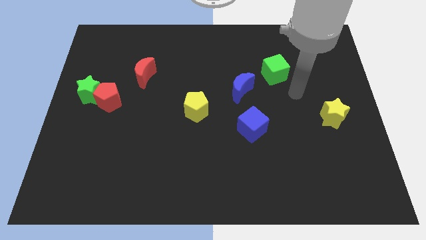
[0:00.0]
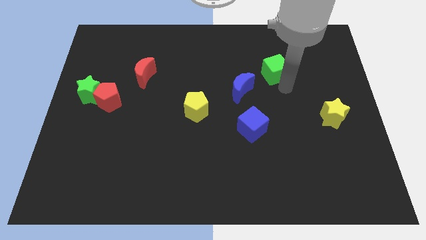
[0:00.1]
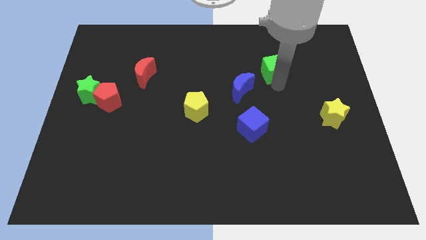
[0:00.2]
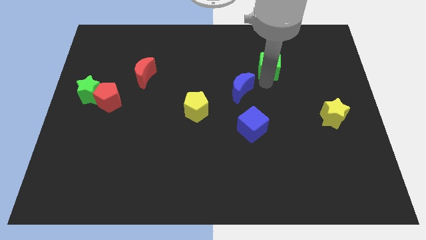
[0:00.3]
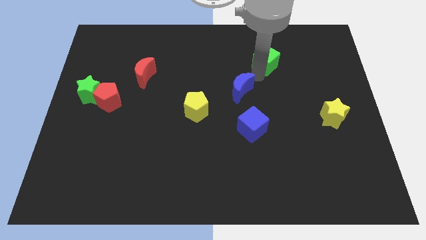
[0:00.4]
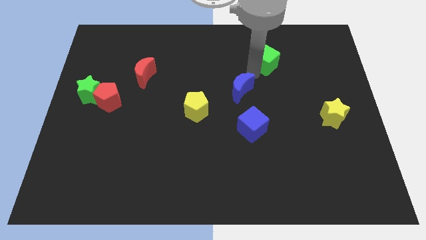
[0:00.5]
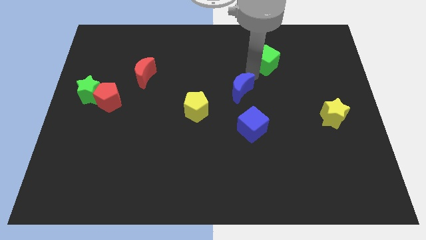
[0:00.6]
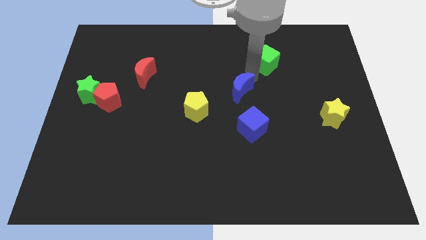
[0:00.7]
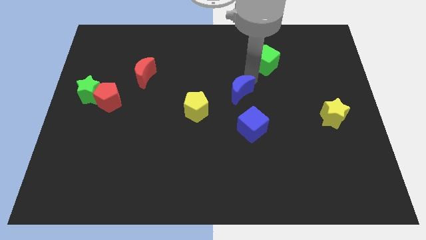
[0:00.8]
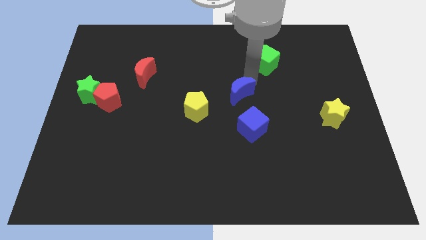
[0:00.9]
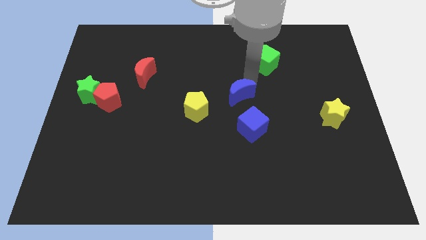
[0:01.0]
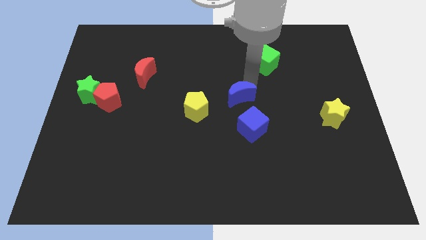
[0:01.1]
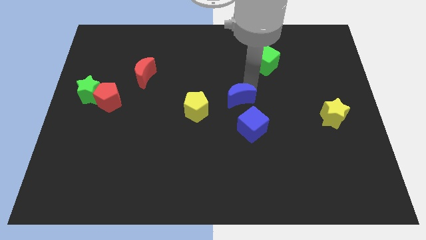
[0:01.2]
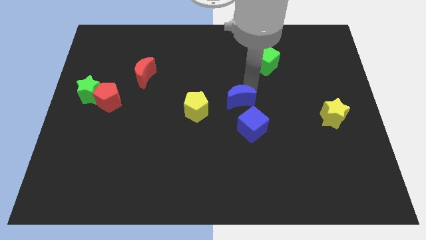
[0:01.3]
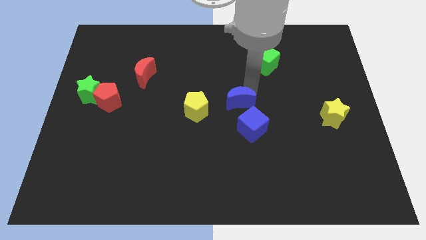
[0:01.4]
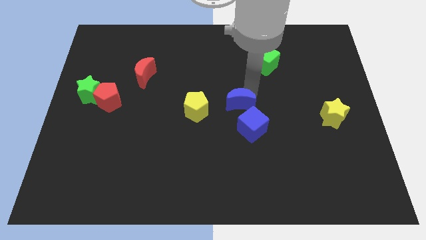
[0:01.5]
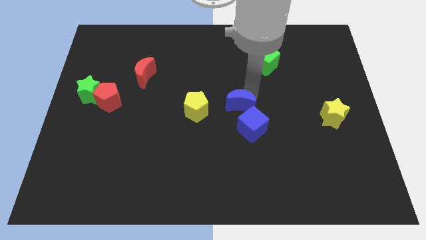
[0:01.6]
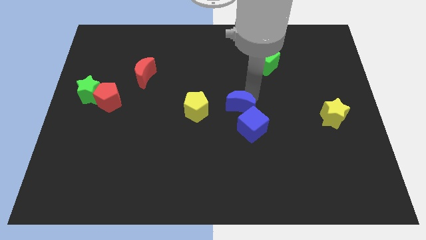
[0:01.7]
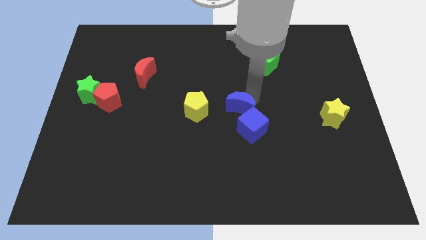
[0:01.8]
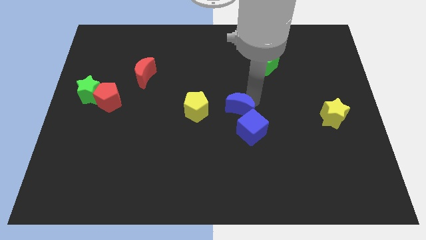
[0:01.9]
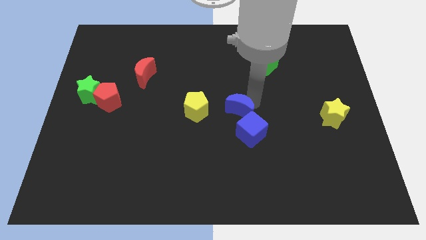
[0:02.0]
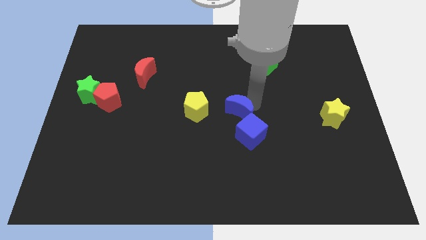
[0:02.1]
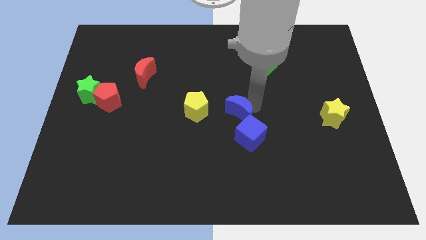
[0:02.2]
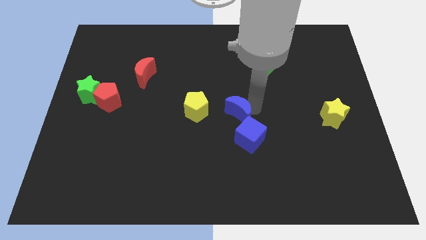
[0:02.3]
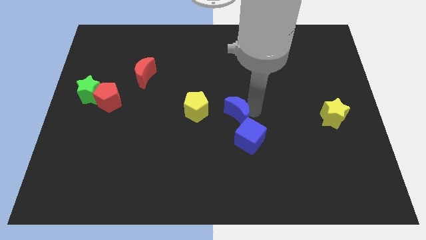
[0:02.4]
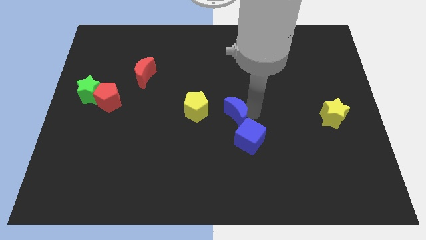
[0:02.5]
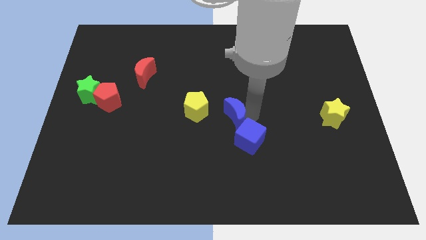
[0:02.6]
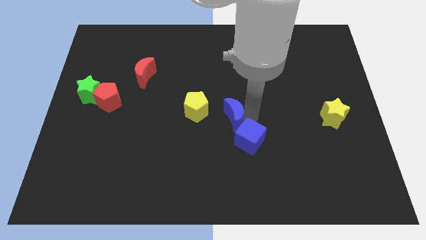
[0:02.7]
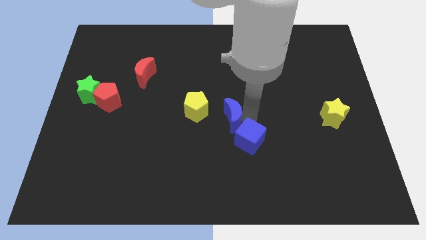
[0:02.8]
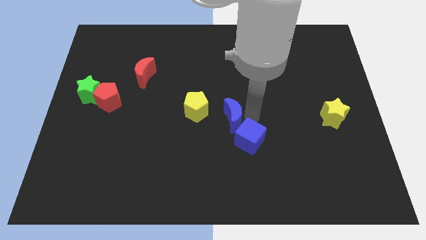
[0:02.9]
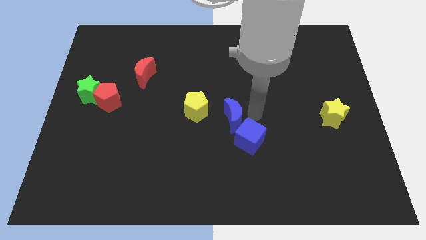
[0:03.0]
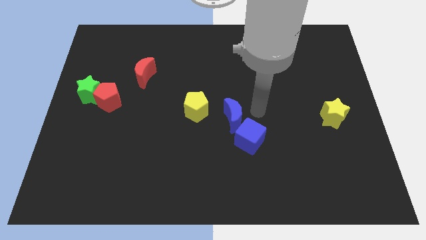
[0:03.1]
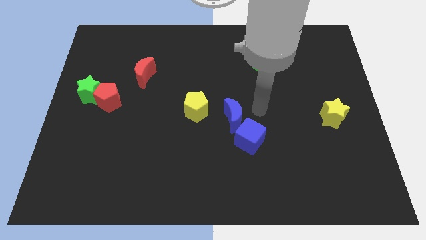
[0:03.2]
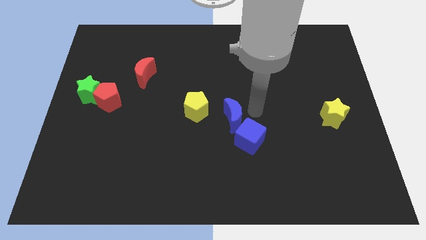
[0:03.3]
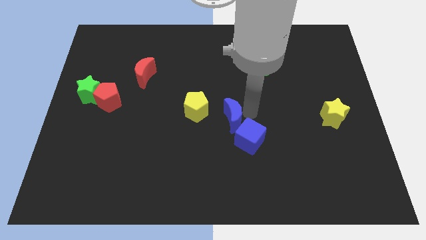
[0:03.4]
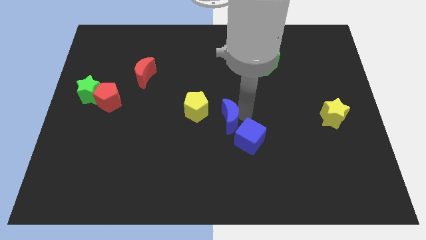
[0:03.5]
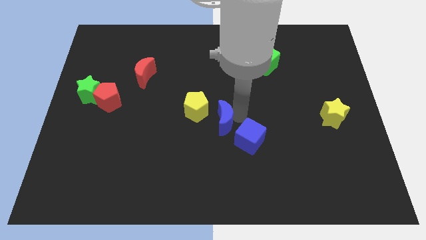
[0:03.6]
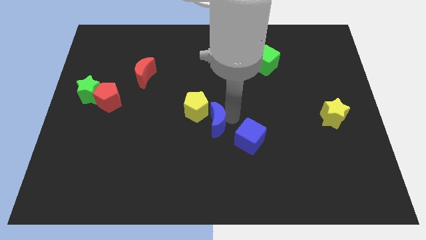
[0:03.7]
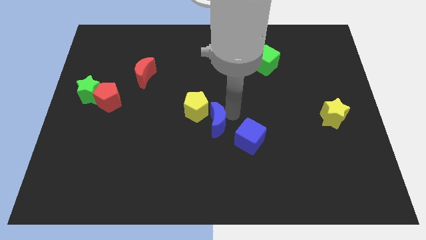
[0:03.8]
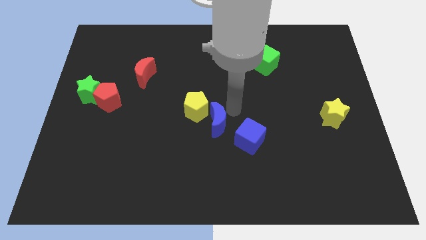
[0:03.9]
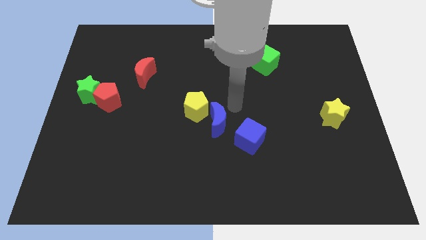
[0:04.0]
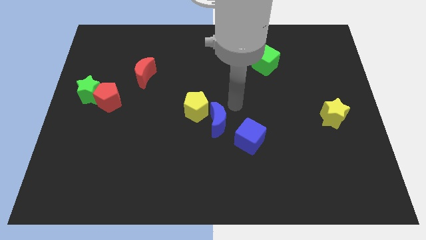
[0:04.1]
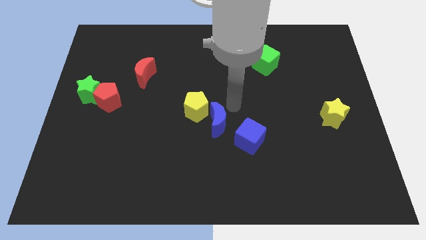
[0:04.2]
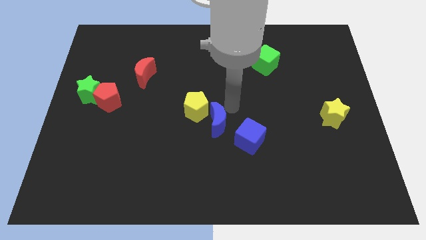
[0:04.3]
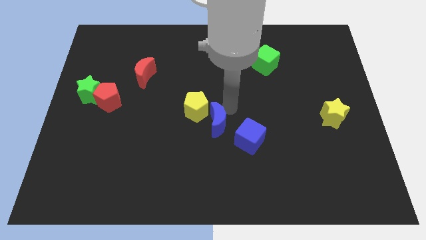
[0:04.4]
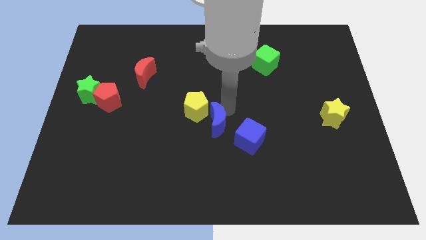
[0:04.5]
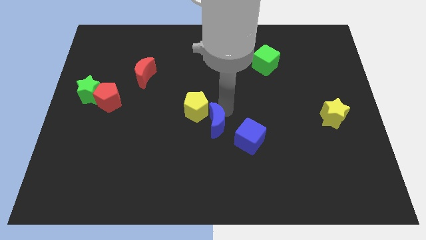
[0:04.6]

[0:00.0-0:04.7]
move the blue moon below the yellow pentagon

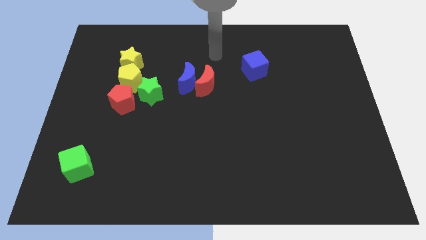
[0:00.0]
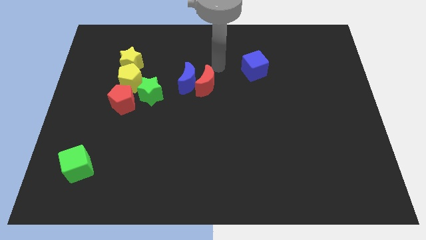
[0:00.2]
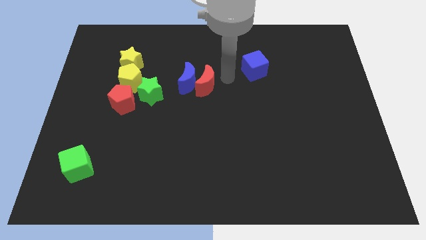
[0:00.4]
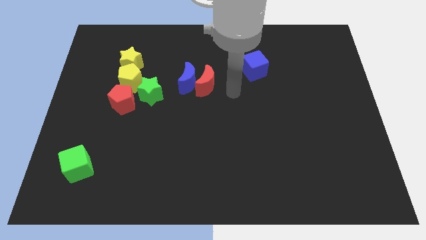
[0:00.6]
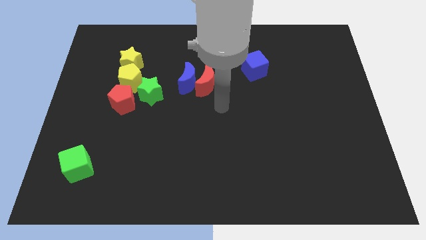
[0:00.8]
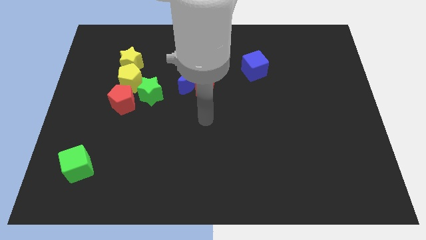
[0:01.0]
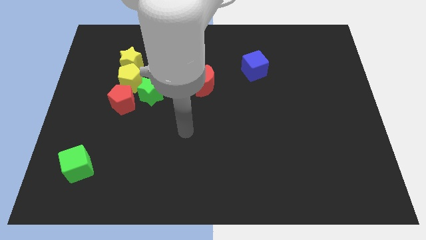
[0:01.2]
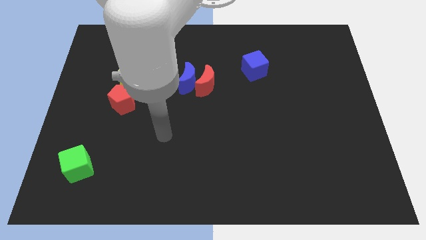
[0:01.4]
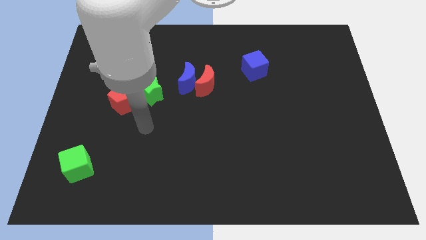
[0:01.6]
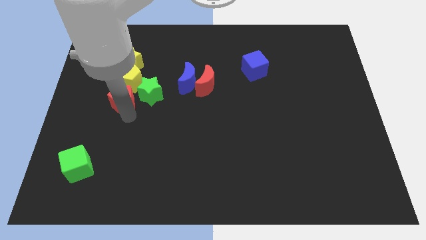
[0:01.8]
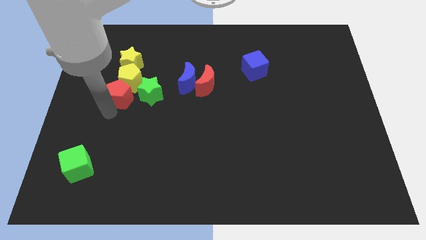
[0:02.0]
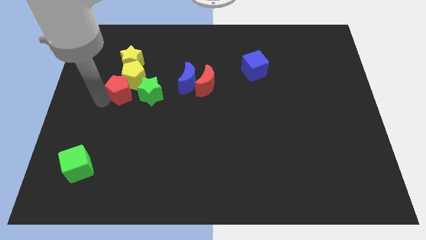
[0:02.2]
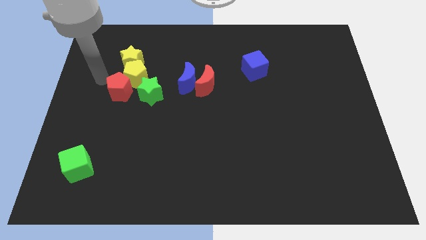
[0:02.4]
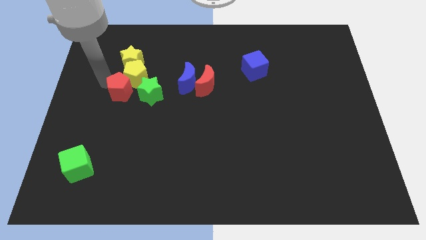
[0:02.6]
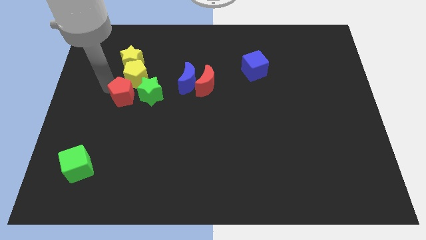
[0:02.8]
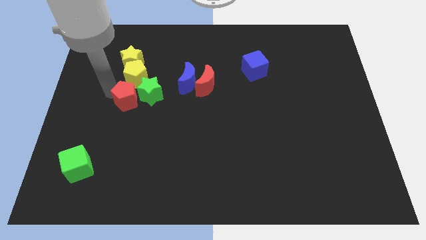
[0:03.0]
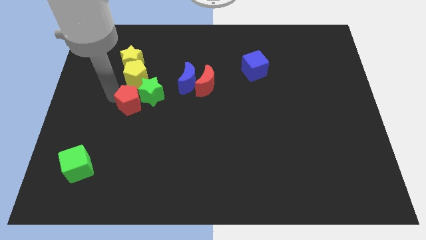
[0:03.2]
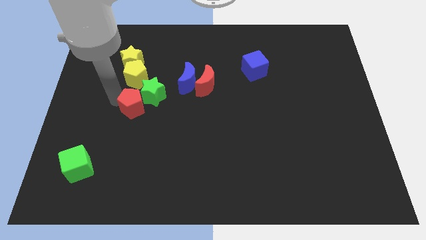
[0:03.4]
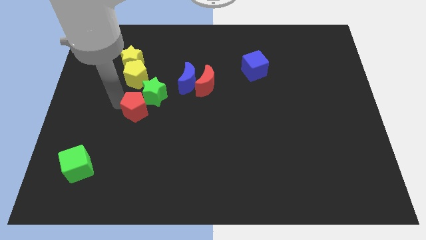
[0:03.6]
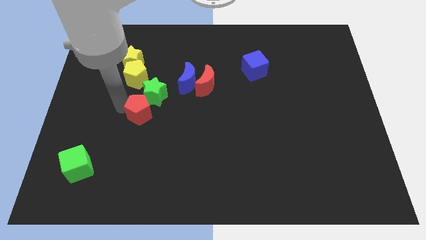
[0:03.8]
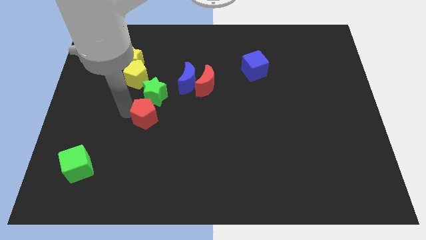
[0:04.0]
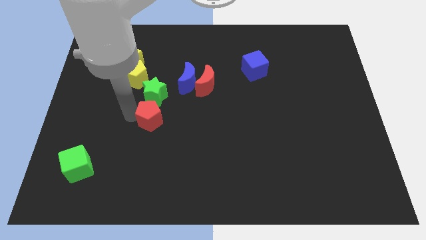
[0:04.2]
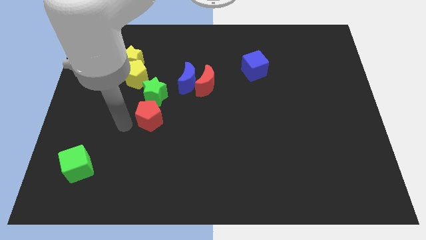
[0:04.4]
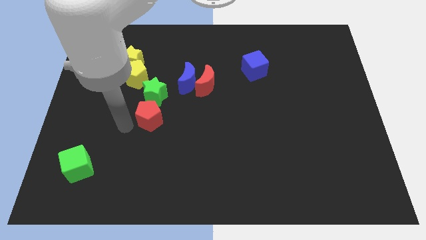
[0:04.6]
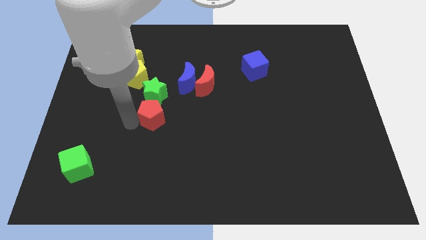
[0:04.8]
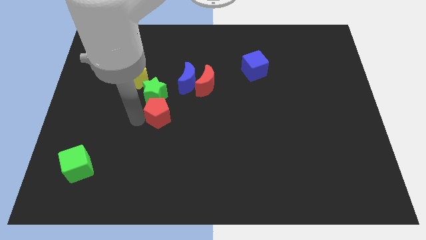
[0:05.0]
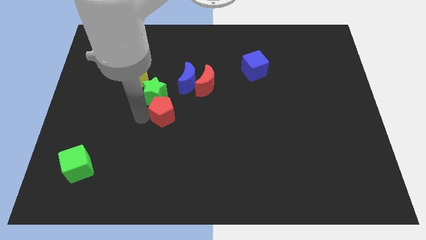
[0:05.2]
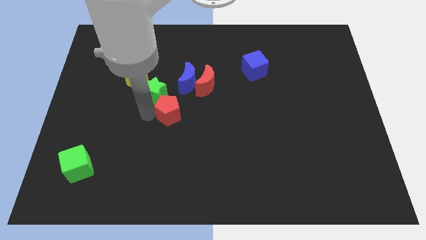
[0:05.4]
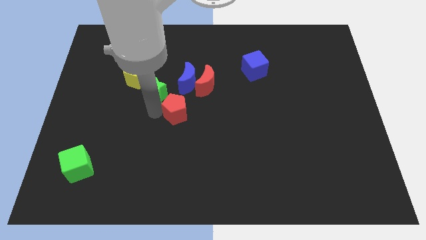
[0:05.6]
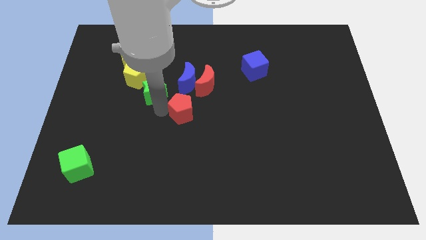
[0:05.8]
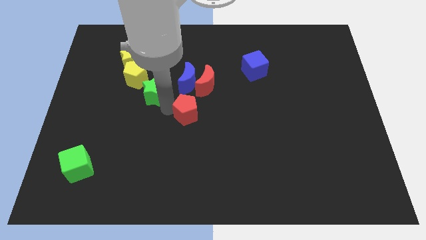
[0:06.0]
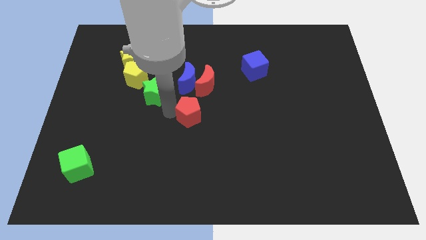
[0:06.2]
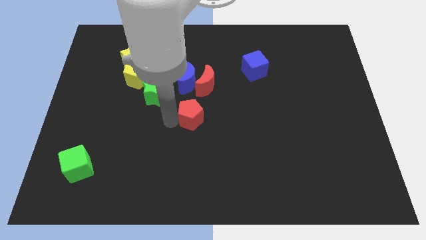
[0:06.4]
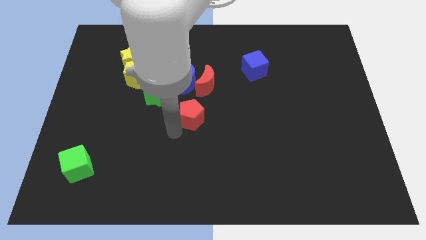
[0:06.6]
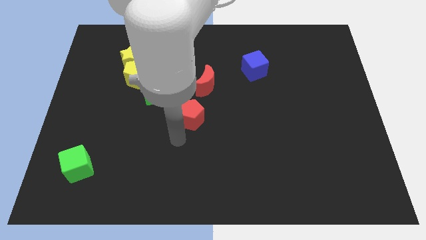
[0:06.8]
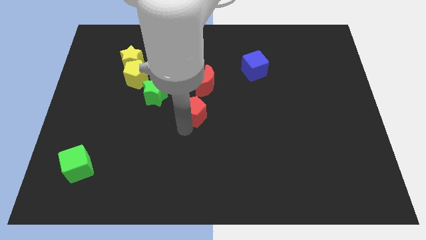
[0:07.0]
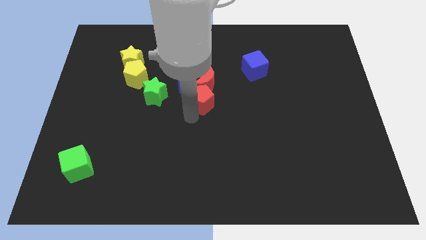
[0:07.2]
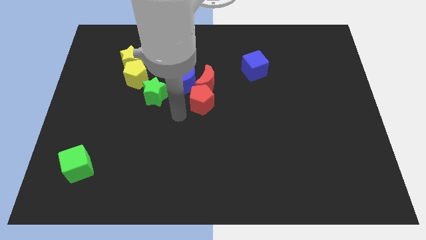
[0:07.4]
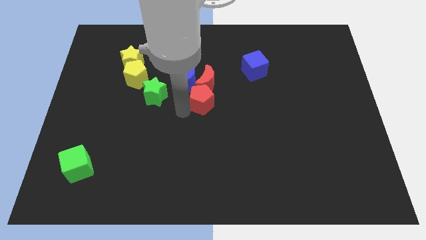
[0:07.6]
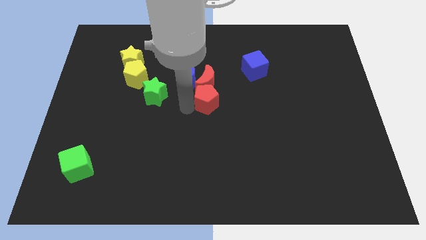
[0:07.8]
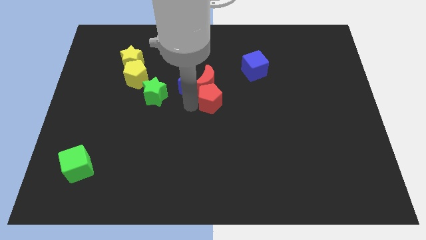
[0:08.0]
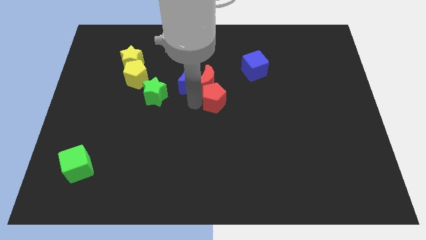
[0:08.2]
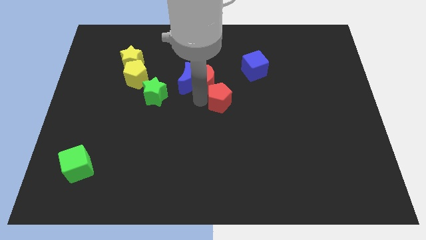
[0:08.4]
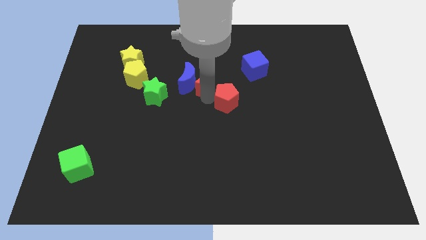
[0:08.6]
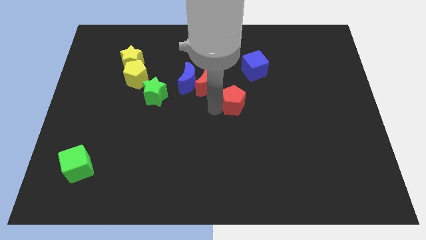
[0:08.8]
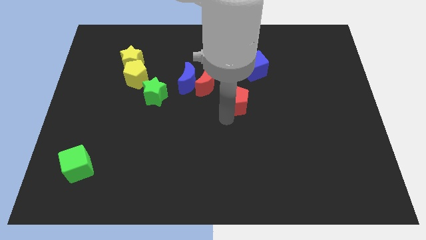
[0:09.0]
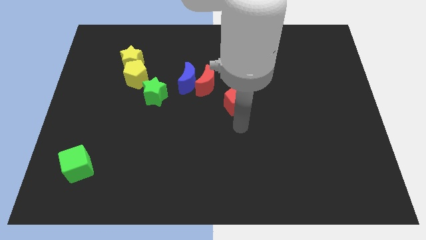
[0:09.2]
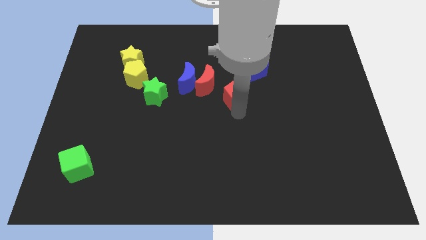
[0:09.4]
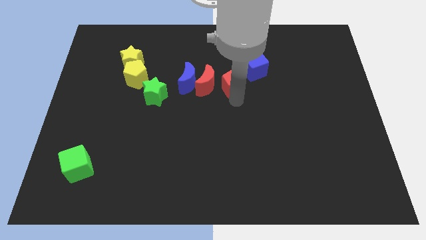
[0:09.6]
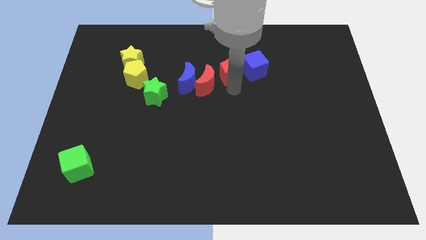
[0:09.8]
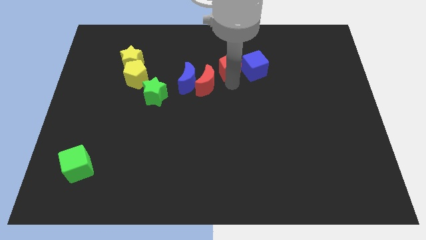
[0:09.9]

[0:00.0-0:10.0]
move the red pentagon to the top left side of the blue cube
